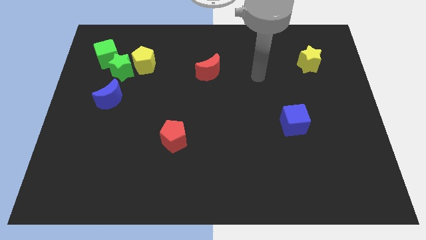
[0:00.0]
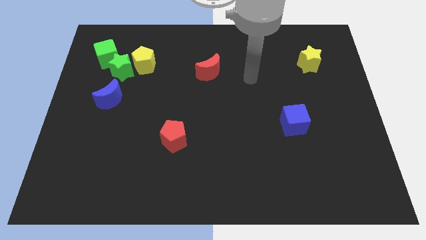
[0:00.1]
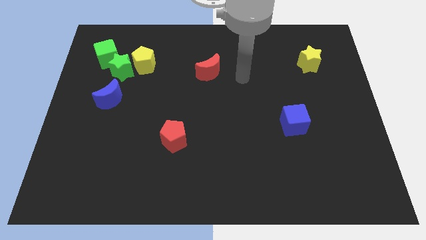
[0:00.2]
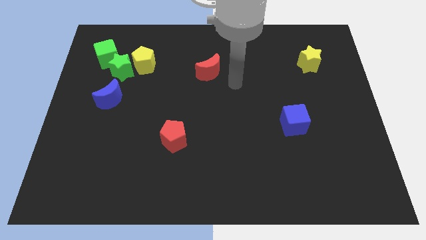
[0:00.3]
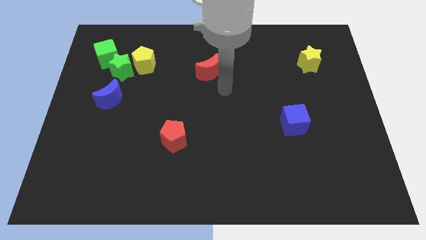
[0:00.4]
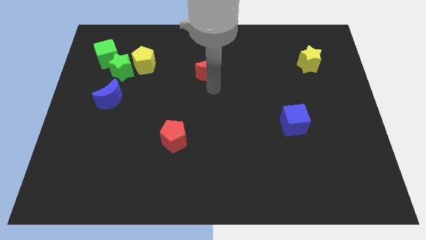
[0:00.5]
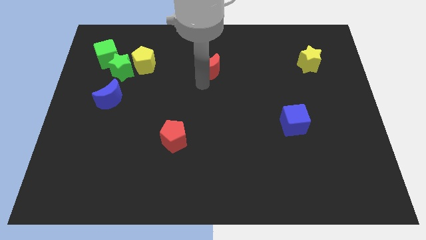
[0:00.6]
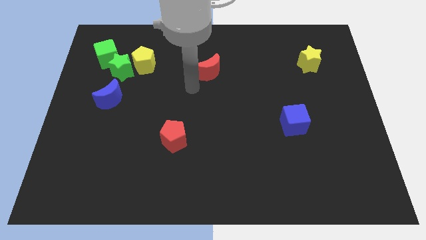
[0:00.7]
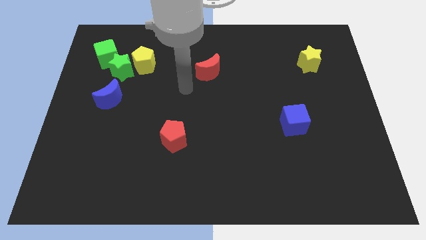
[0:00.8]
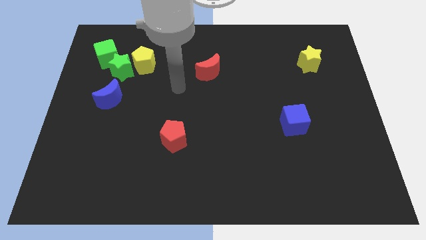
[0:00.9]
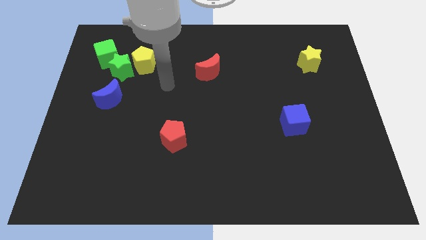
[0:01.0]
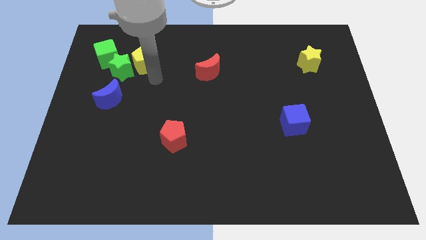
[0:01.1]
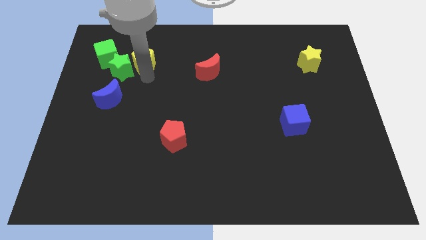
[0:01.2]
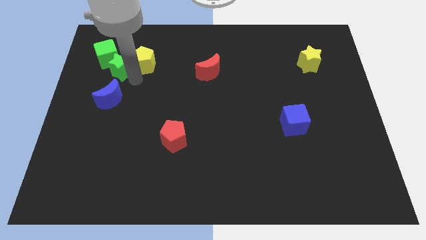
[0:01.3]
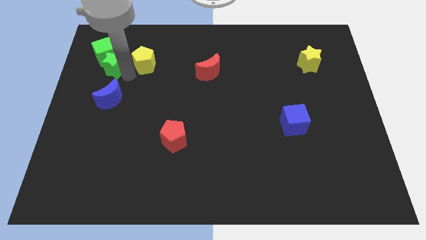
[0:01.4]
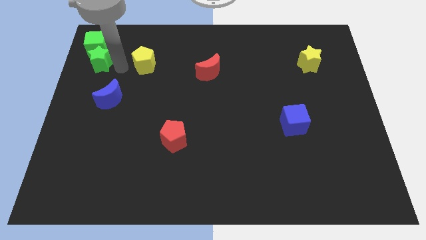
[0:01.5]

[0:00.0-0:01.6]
pull the yellow pentagon apart from the green star

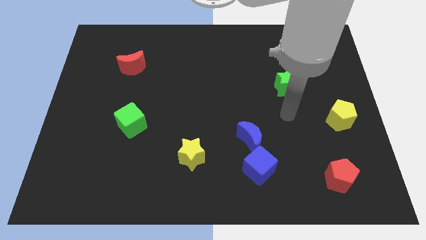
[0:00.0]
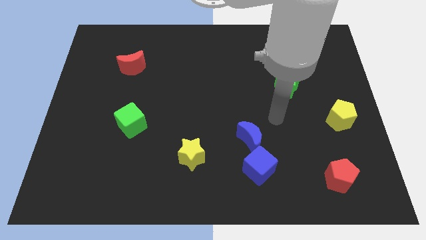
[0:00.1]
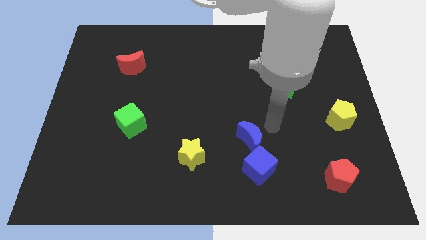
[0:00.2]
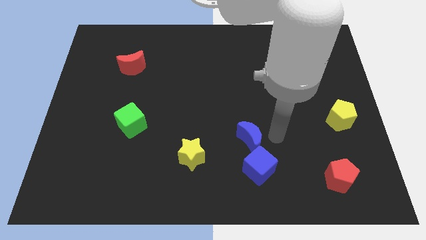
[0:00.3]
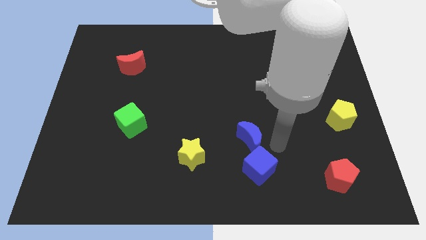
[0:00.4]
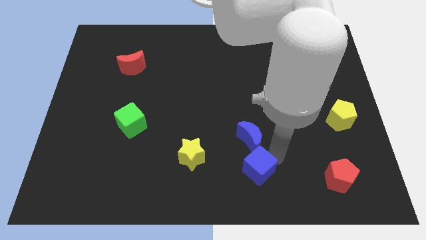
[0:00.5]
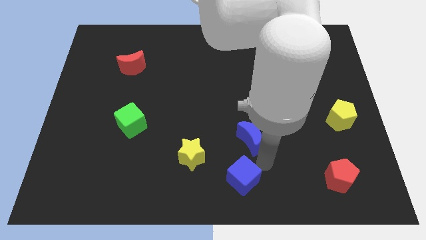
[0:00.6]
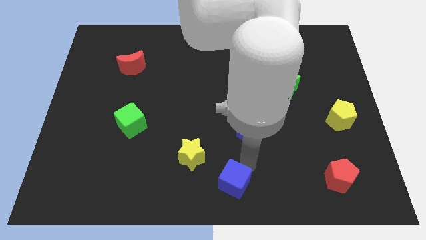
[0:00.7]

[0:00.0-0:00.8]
separate the blue moon from the blue cube

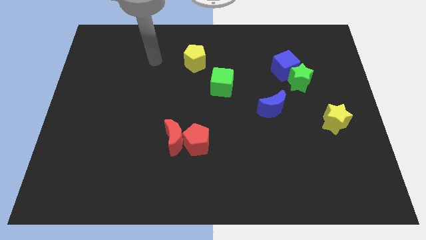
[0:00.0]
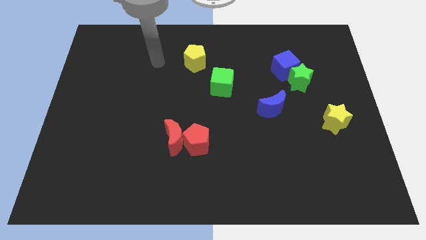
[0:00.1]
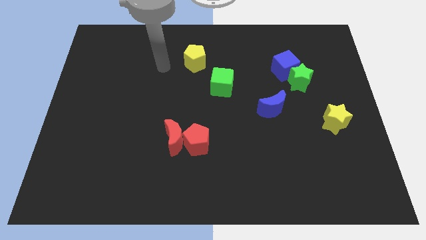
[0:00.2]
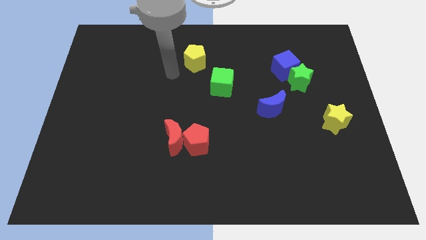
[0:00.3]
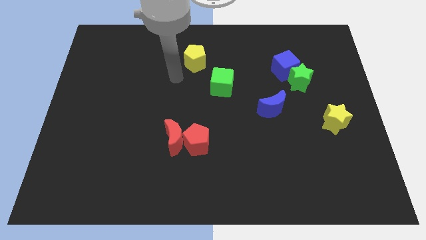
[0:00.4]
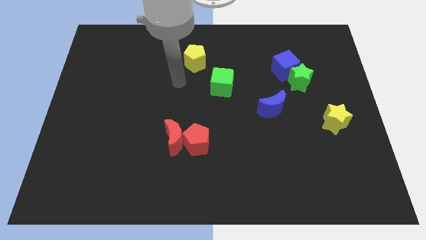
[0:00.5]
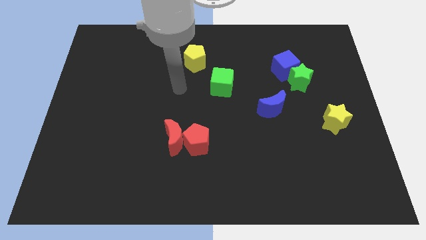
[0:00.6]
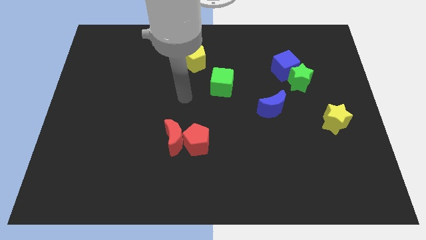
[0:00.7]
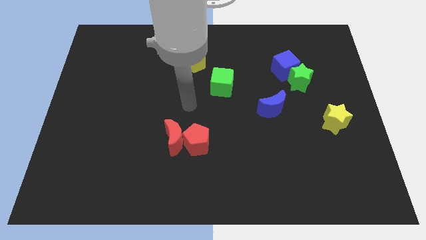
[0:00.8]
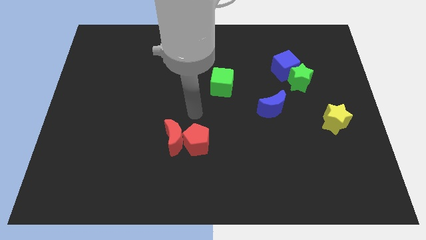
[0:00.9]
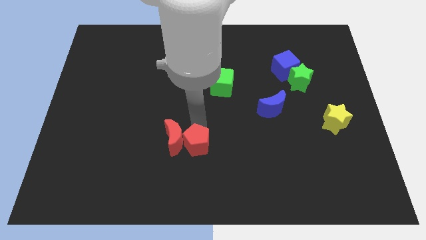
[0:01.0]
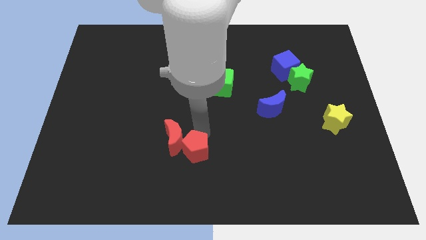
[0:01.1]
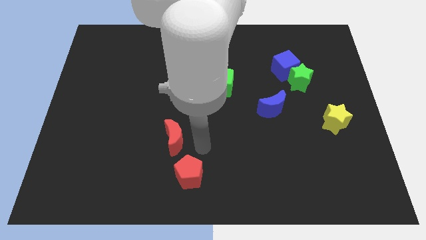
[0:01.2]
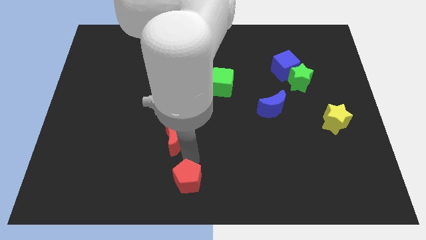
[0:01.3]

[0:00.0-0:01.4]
separate the red moon from the red pentagon

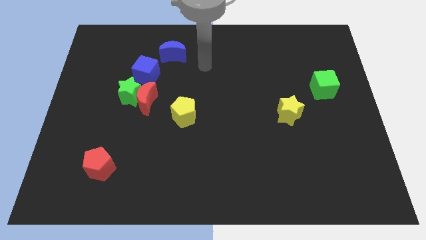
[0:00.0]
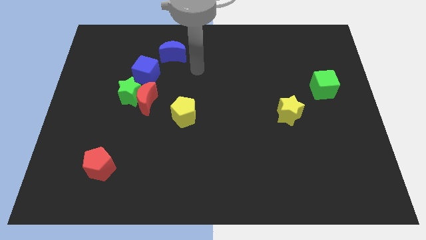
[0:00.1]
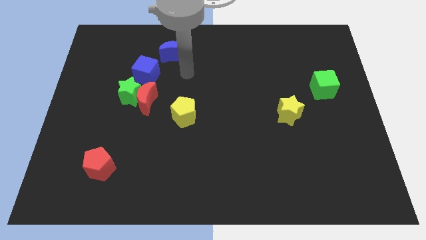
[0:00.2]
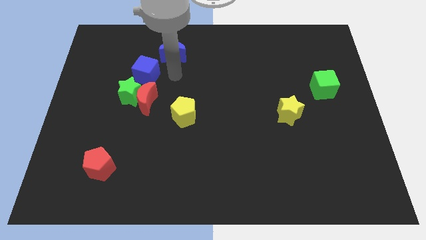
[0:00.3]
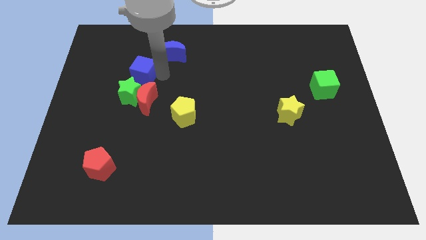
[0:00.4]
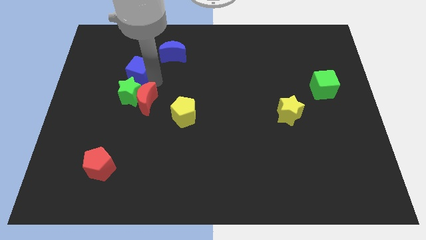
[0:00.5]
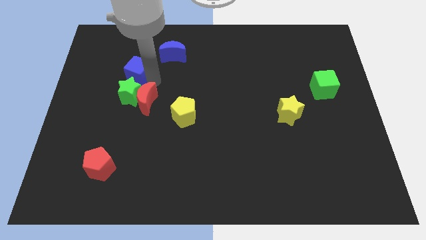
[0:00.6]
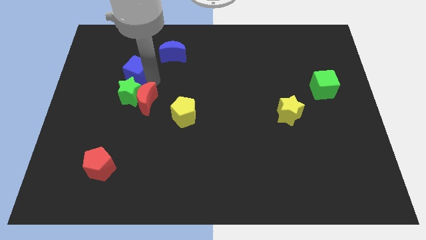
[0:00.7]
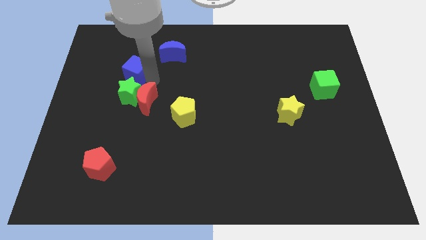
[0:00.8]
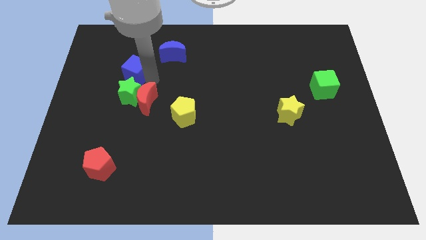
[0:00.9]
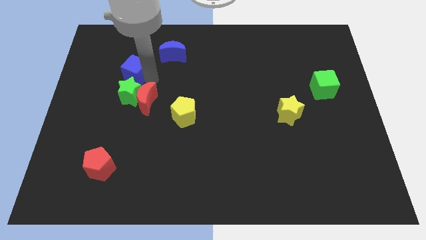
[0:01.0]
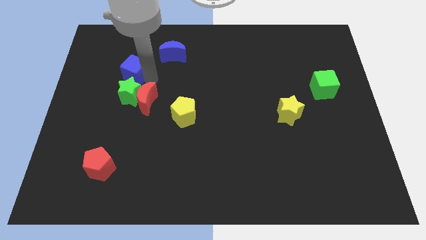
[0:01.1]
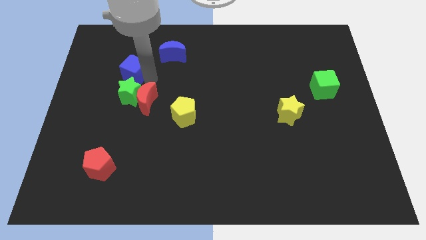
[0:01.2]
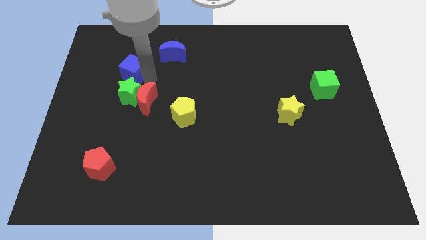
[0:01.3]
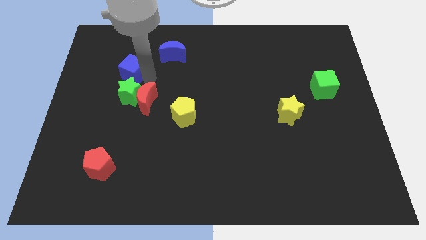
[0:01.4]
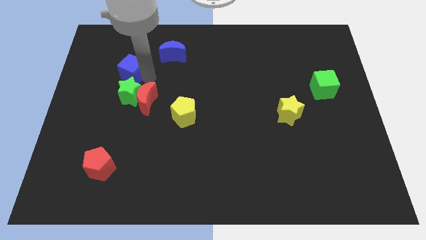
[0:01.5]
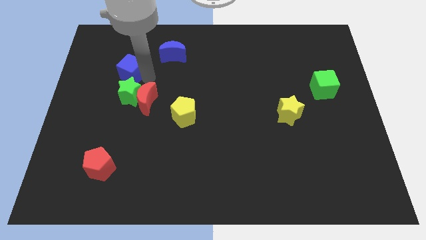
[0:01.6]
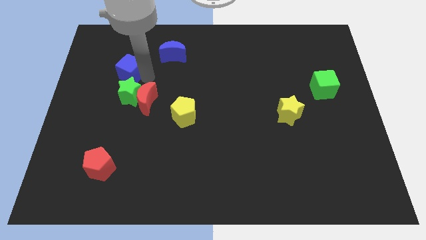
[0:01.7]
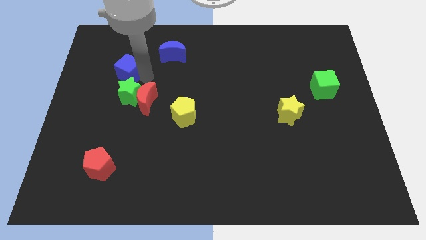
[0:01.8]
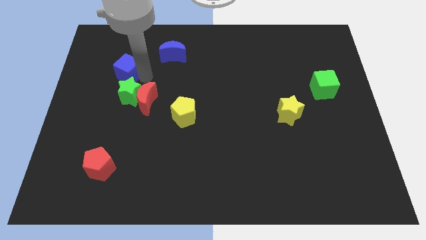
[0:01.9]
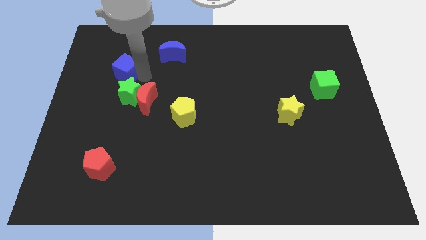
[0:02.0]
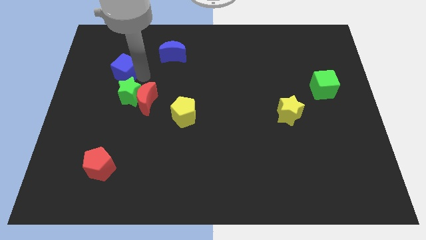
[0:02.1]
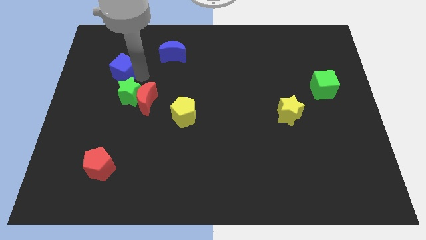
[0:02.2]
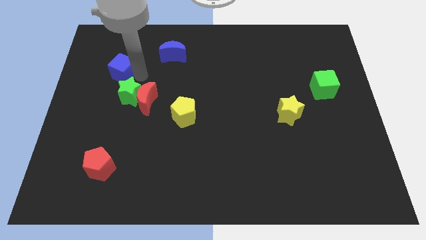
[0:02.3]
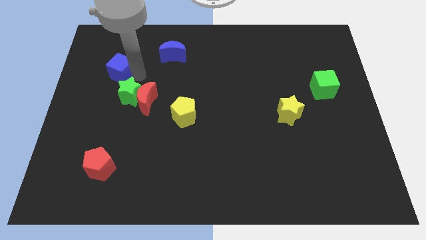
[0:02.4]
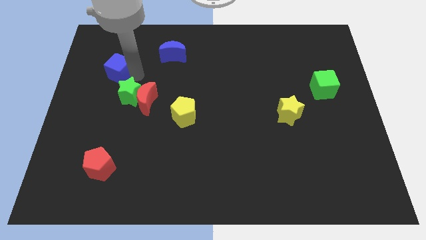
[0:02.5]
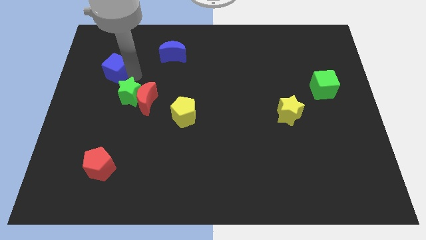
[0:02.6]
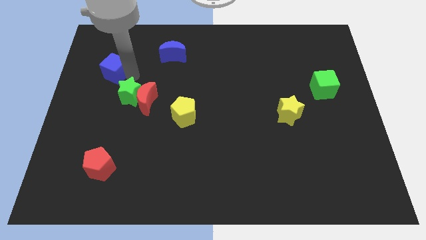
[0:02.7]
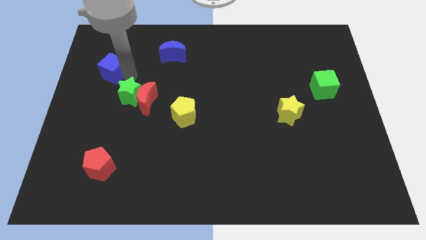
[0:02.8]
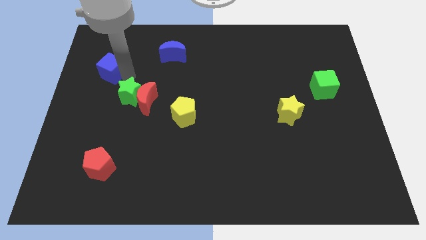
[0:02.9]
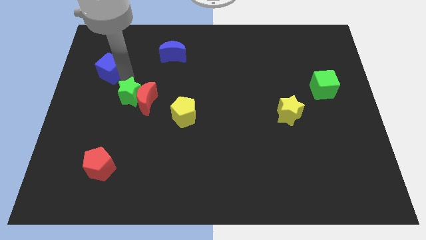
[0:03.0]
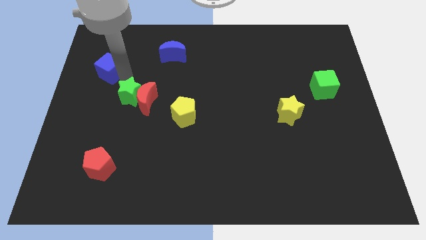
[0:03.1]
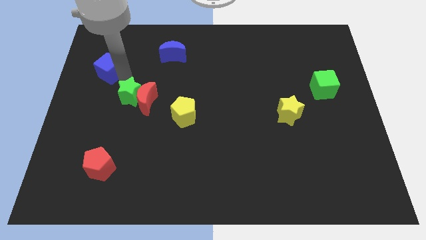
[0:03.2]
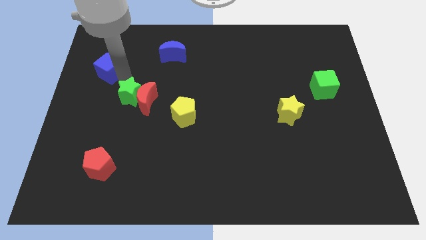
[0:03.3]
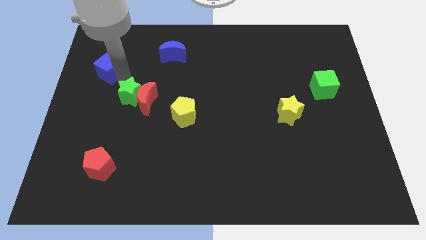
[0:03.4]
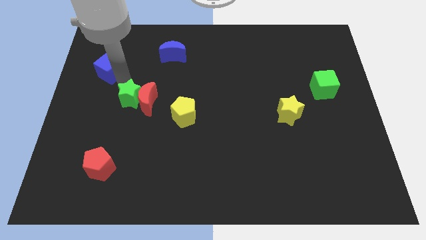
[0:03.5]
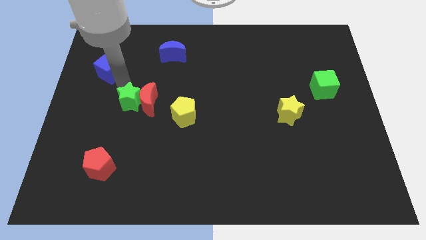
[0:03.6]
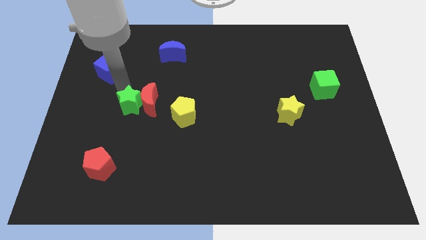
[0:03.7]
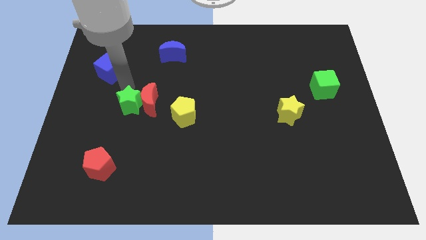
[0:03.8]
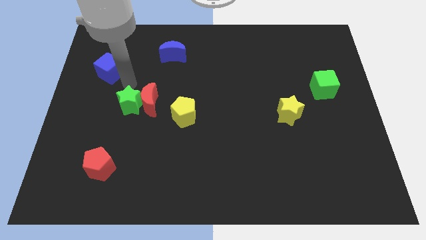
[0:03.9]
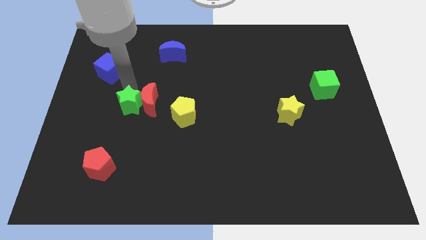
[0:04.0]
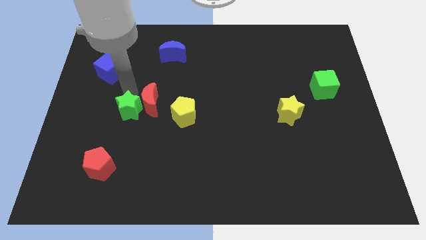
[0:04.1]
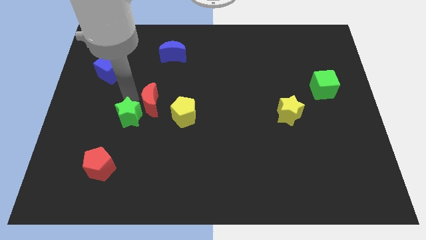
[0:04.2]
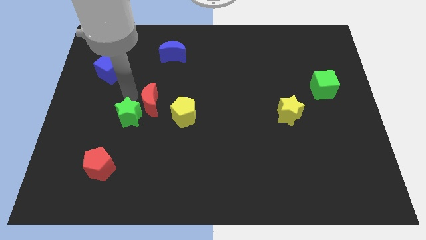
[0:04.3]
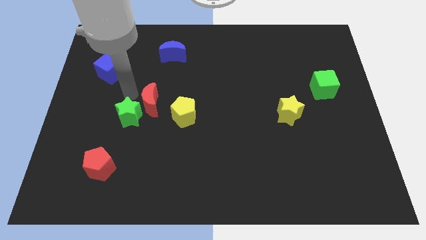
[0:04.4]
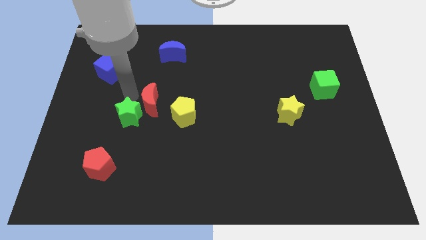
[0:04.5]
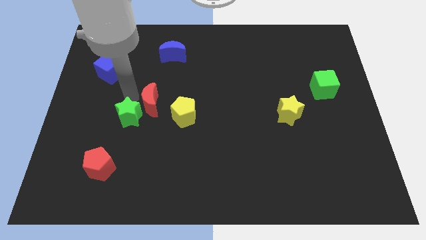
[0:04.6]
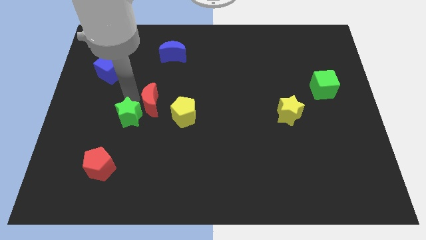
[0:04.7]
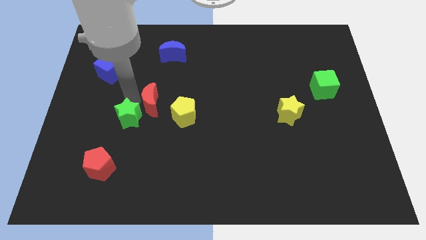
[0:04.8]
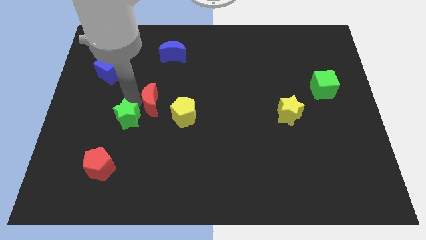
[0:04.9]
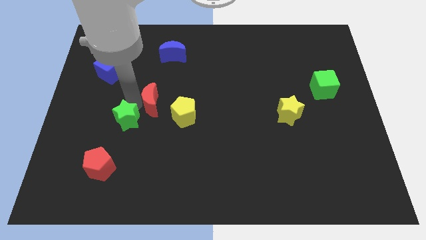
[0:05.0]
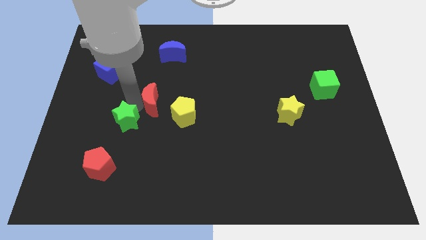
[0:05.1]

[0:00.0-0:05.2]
pull the green star apart from the red moon and blue cube

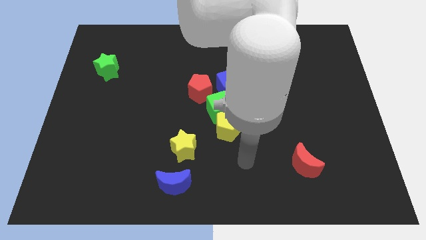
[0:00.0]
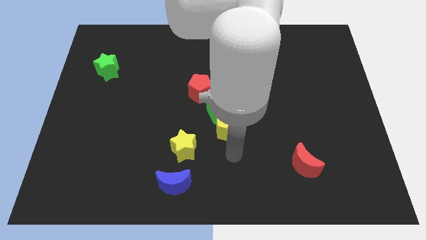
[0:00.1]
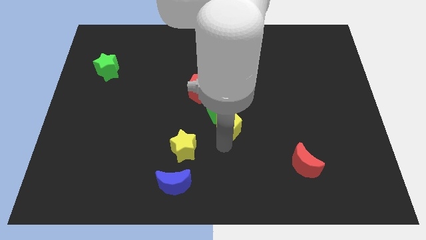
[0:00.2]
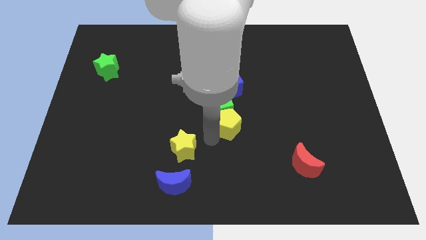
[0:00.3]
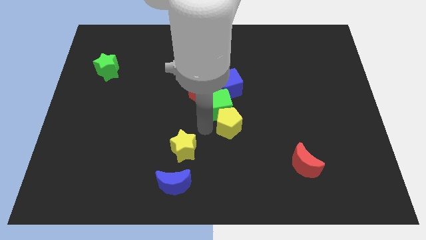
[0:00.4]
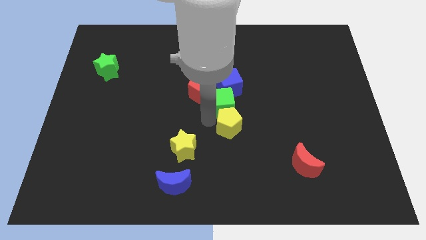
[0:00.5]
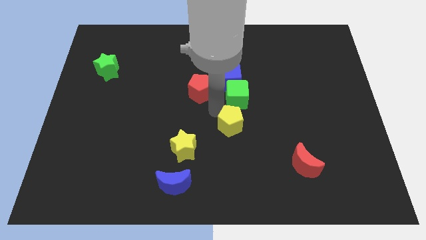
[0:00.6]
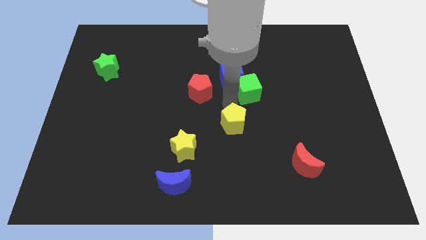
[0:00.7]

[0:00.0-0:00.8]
move the yellow pentagon away from the green cube
